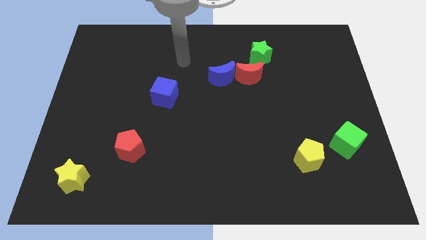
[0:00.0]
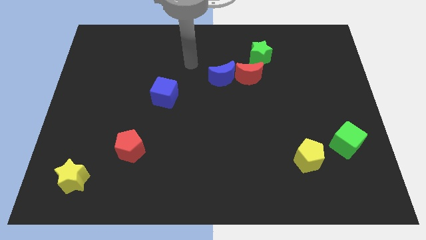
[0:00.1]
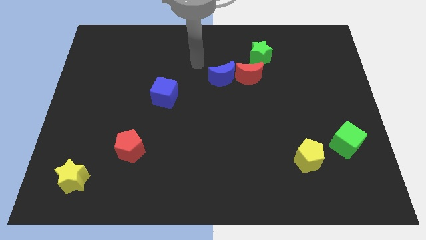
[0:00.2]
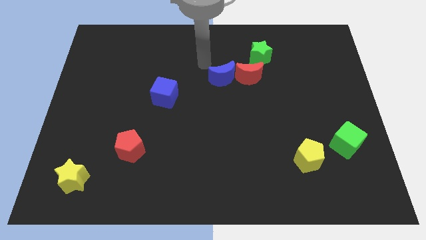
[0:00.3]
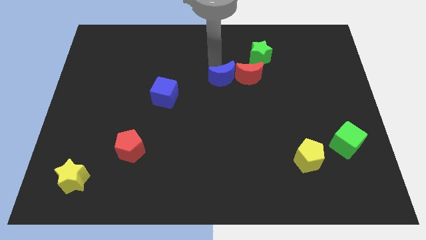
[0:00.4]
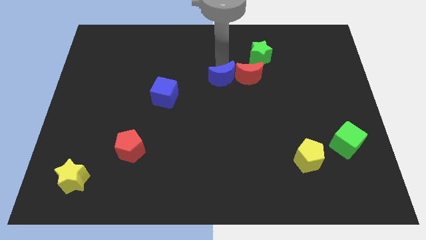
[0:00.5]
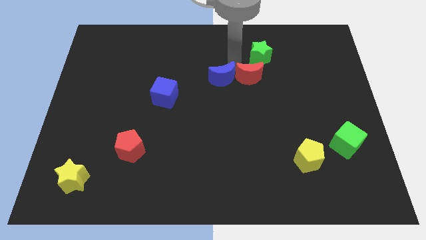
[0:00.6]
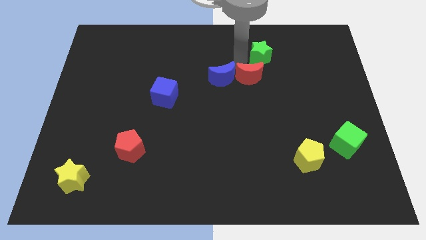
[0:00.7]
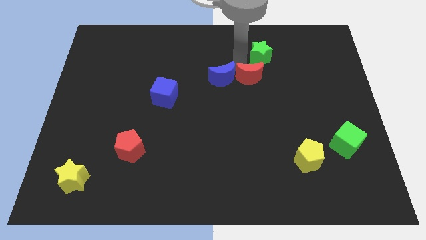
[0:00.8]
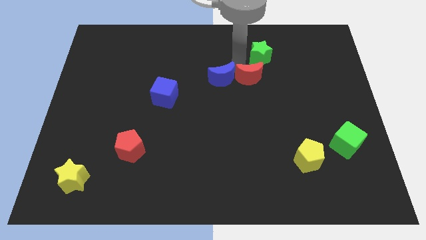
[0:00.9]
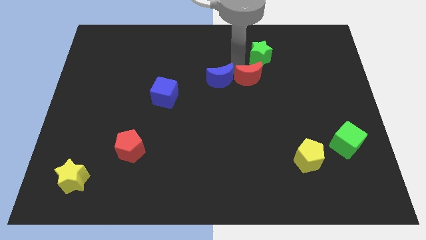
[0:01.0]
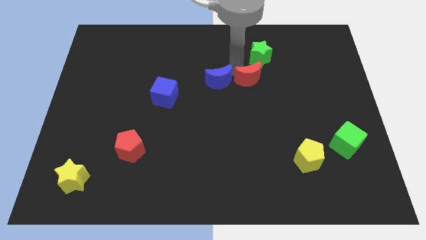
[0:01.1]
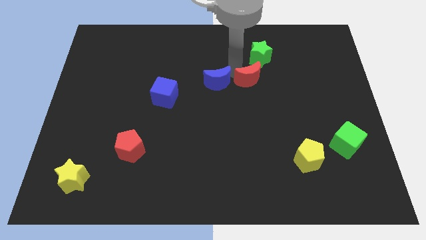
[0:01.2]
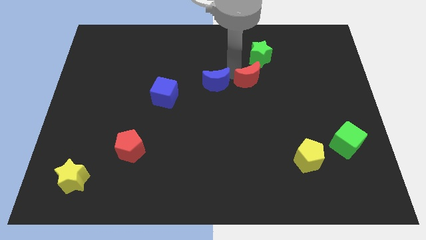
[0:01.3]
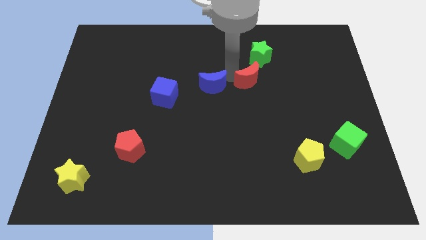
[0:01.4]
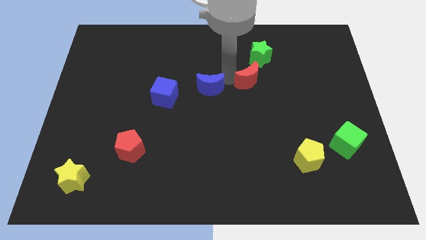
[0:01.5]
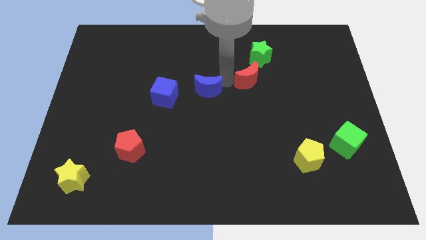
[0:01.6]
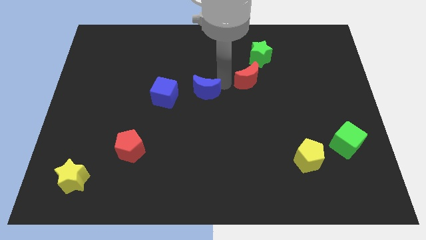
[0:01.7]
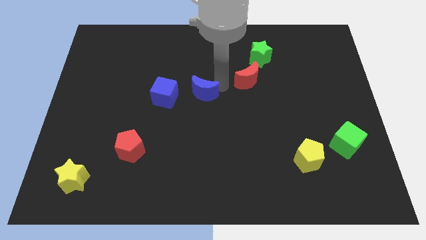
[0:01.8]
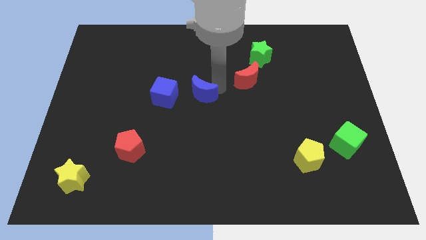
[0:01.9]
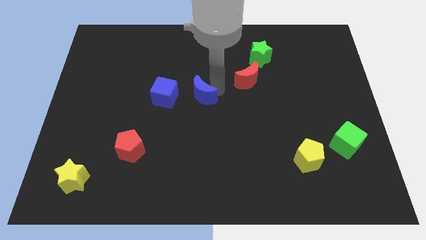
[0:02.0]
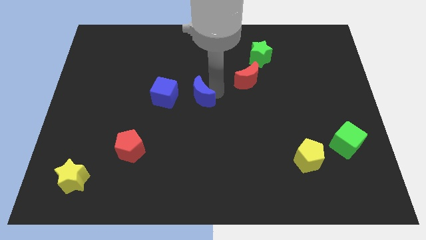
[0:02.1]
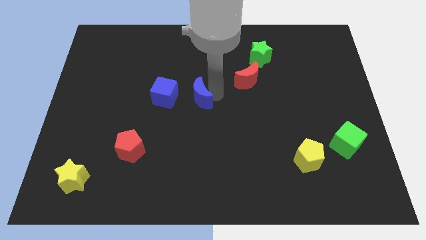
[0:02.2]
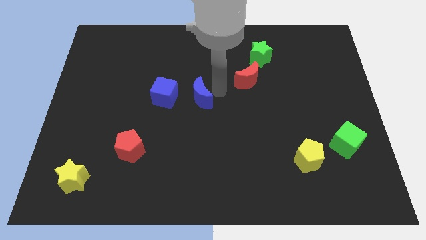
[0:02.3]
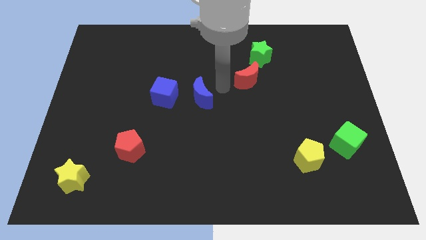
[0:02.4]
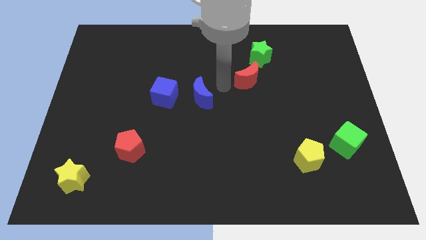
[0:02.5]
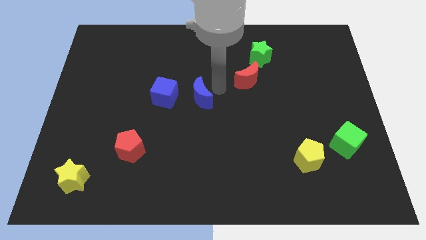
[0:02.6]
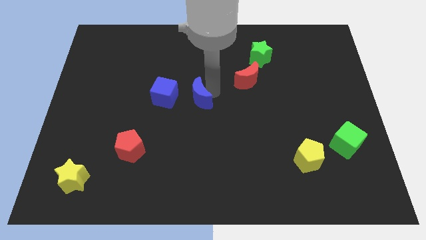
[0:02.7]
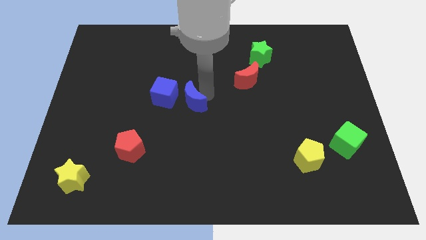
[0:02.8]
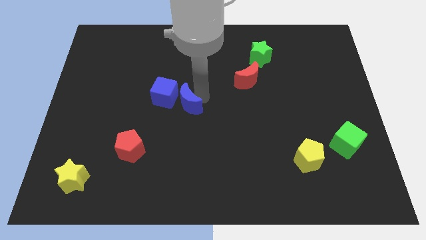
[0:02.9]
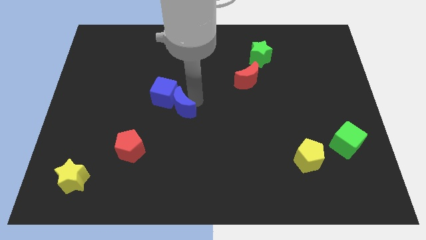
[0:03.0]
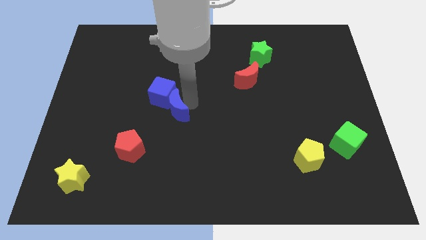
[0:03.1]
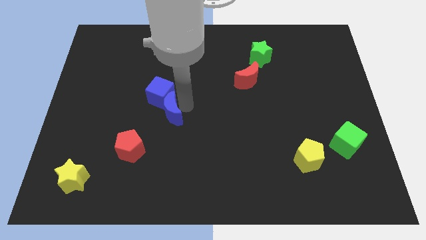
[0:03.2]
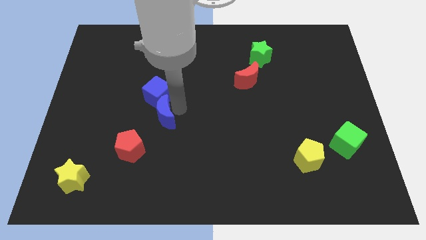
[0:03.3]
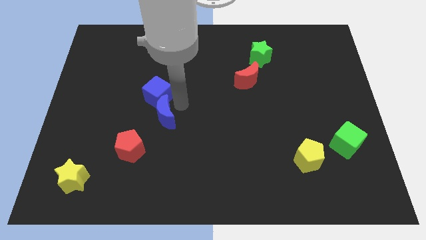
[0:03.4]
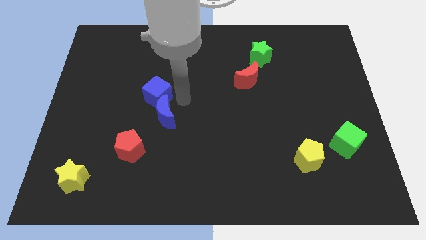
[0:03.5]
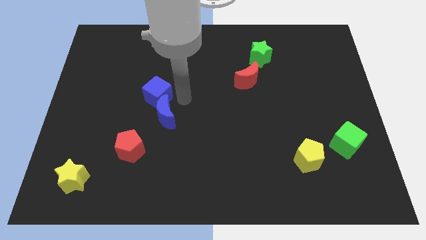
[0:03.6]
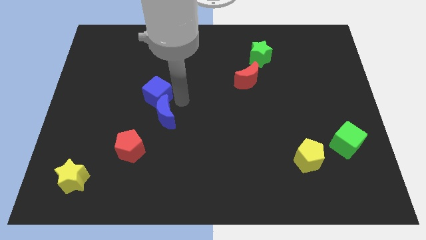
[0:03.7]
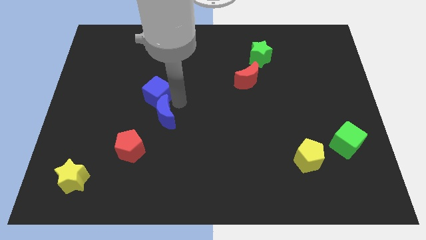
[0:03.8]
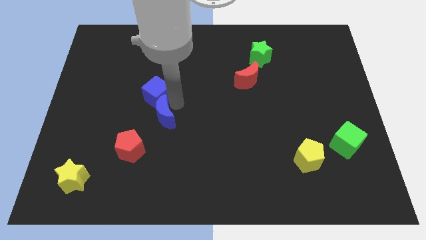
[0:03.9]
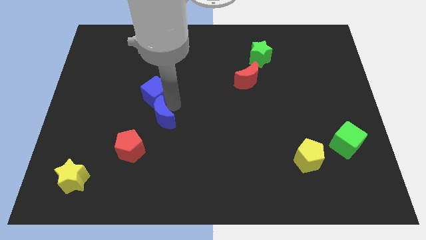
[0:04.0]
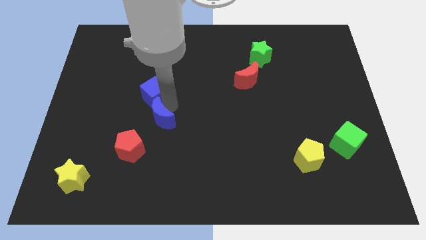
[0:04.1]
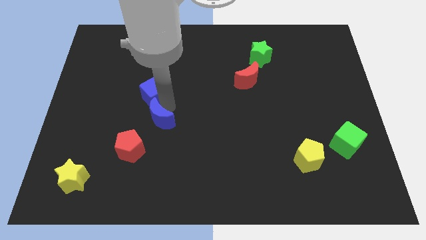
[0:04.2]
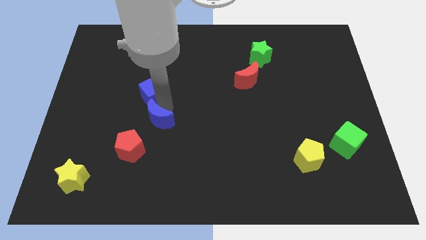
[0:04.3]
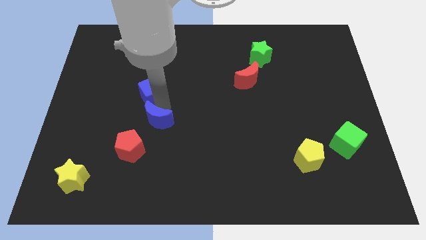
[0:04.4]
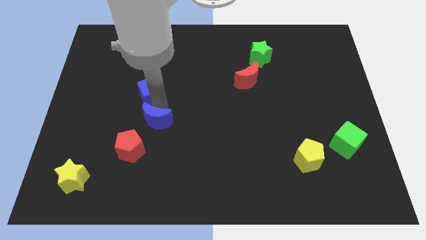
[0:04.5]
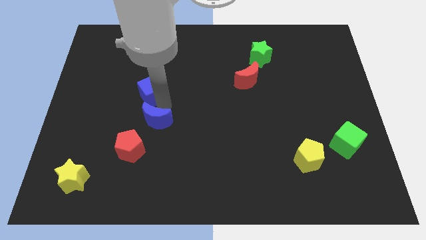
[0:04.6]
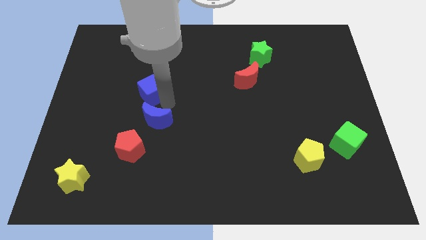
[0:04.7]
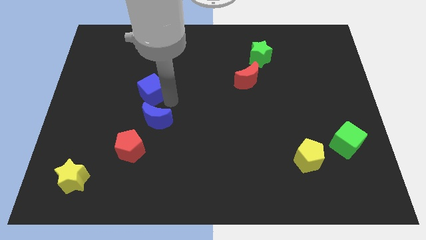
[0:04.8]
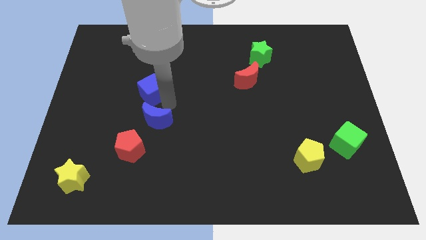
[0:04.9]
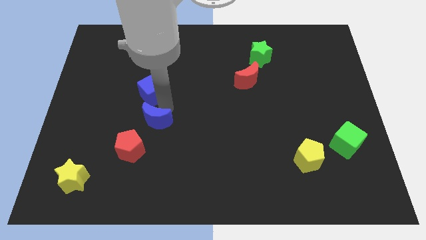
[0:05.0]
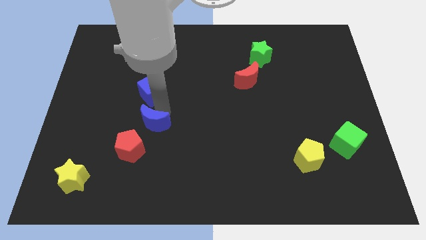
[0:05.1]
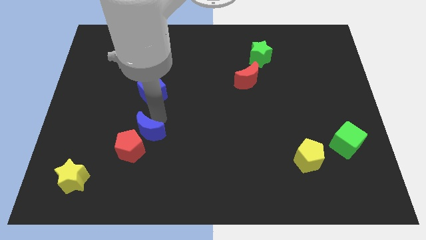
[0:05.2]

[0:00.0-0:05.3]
move the blue moon towards the red pentagon

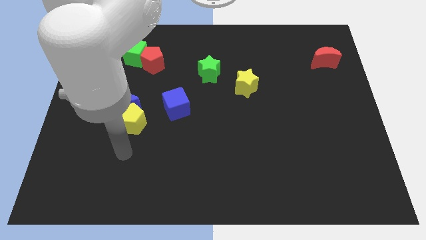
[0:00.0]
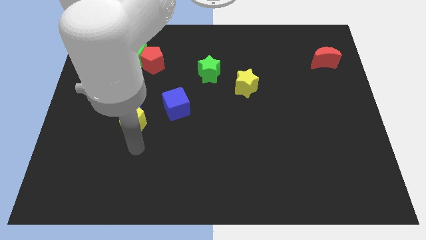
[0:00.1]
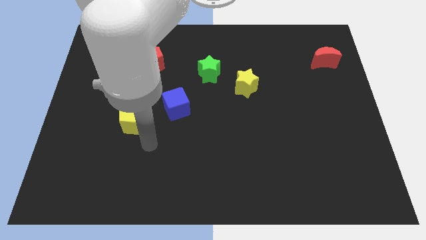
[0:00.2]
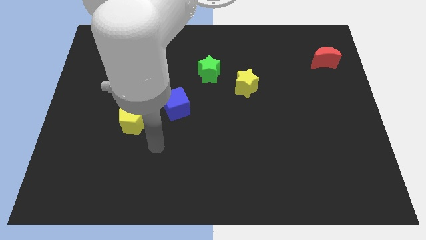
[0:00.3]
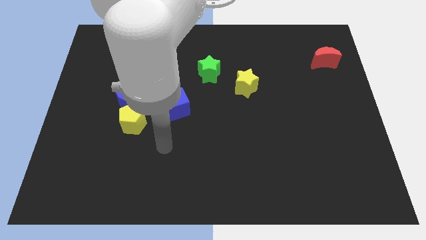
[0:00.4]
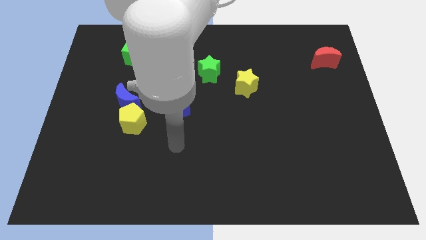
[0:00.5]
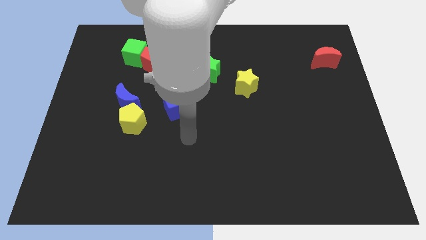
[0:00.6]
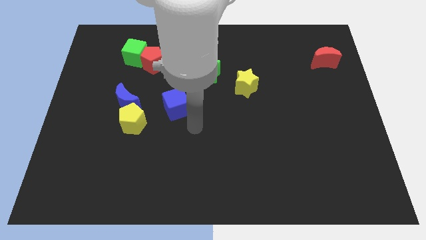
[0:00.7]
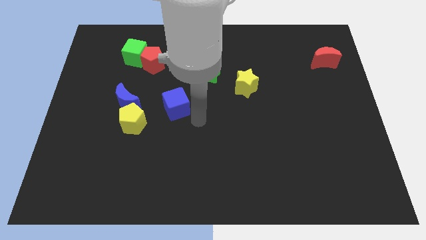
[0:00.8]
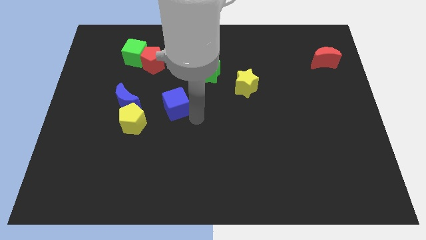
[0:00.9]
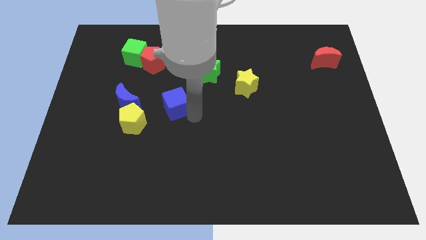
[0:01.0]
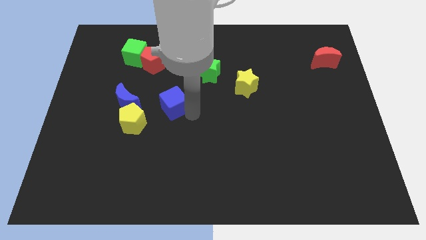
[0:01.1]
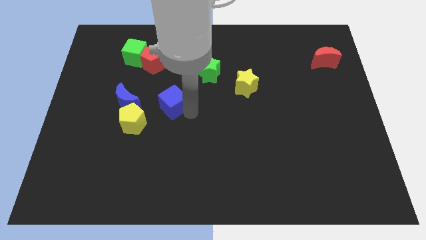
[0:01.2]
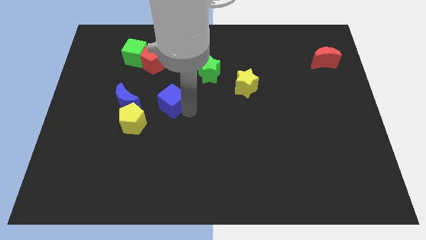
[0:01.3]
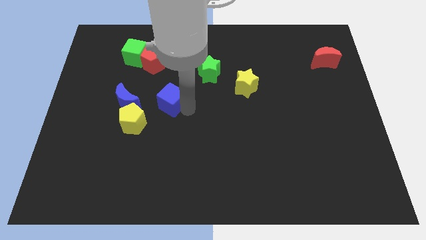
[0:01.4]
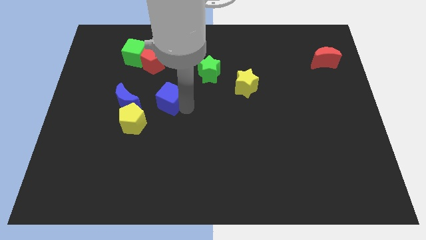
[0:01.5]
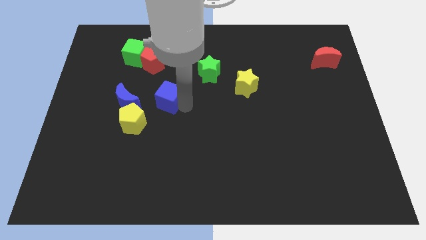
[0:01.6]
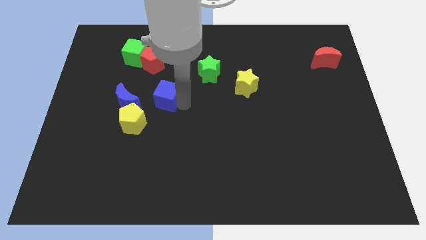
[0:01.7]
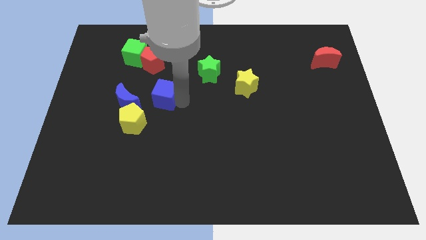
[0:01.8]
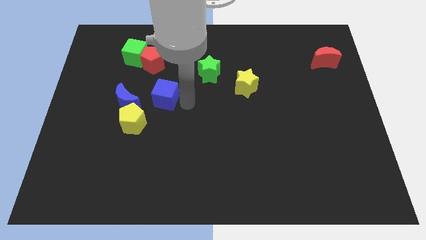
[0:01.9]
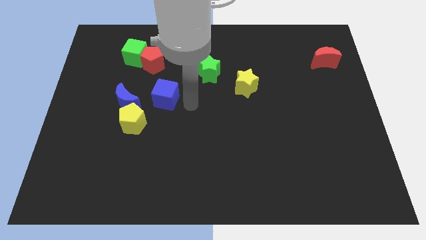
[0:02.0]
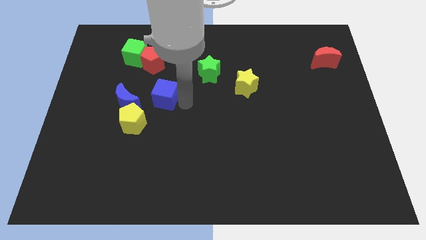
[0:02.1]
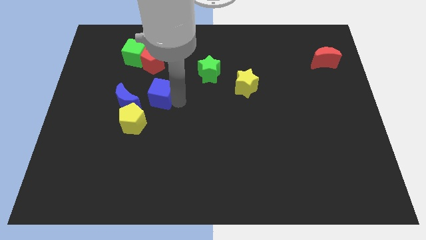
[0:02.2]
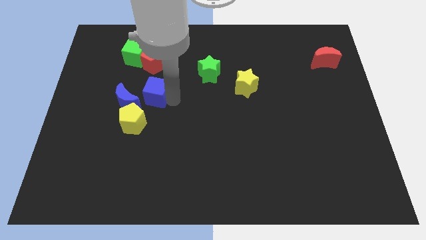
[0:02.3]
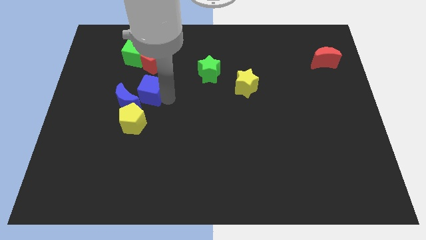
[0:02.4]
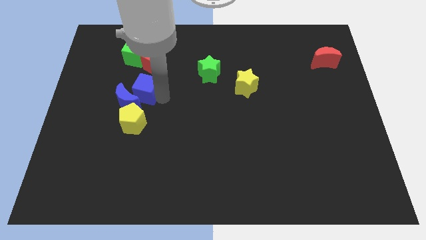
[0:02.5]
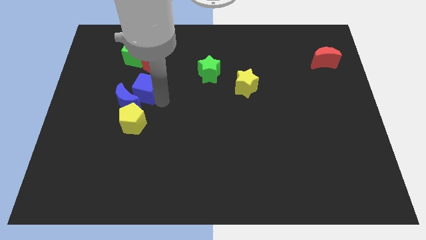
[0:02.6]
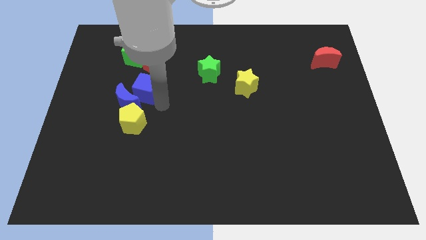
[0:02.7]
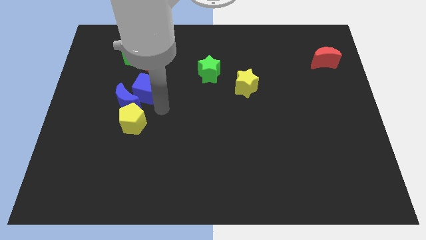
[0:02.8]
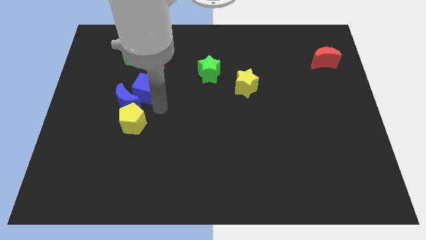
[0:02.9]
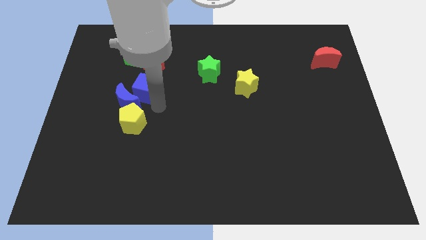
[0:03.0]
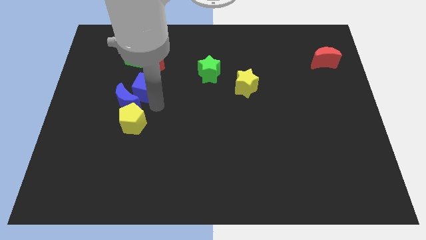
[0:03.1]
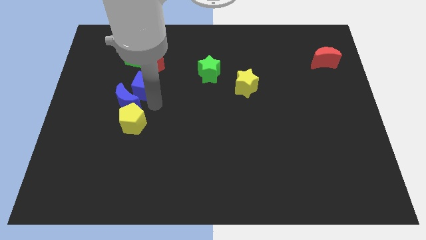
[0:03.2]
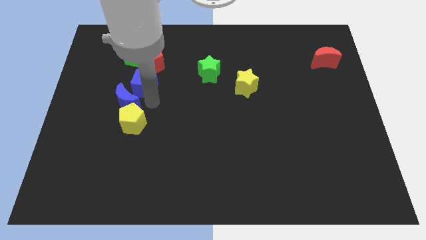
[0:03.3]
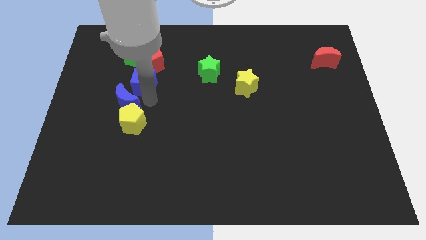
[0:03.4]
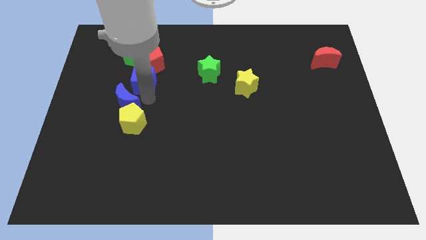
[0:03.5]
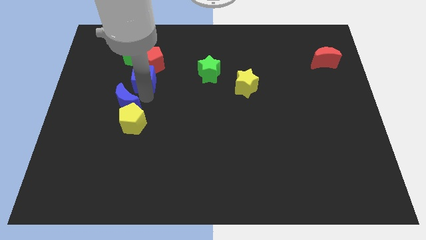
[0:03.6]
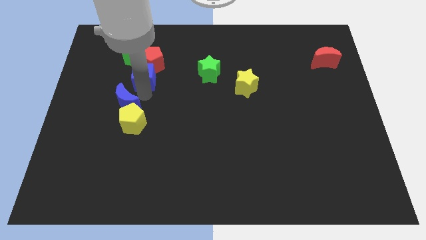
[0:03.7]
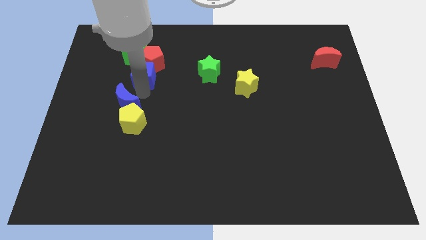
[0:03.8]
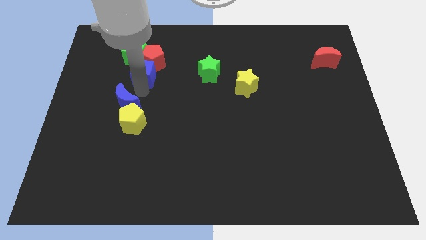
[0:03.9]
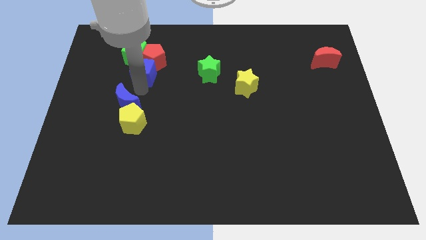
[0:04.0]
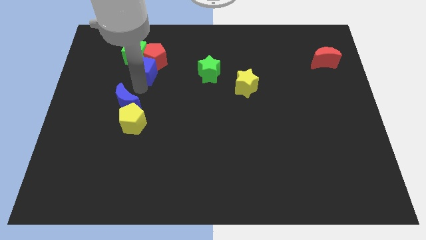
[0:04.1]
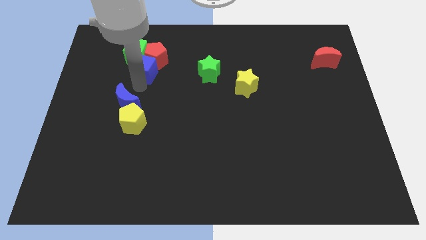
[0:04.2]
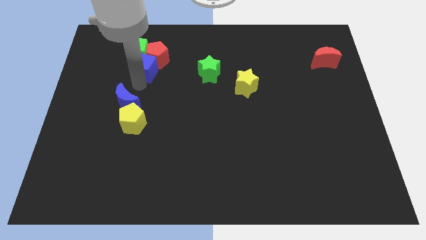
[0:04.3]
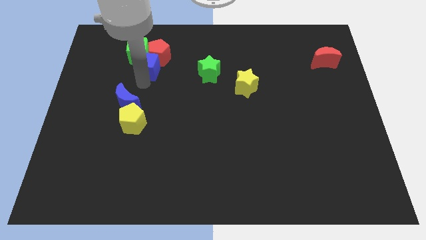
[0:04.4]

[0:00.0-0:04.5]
put the blue cube to the green cube
